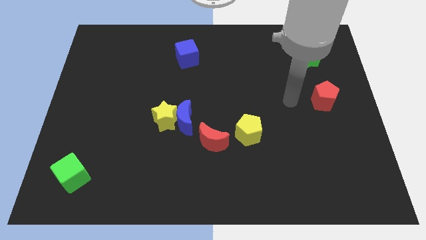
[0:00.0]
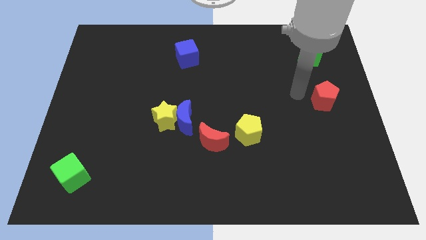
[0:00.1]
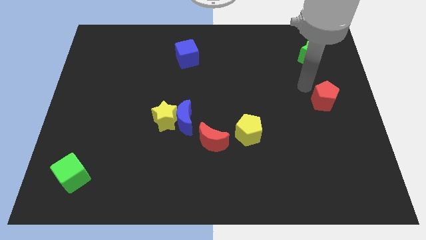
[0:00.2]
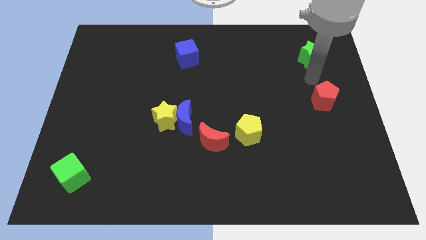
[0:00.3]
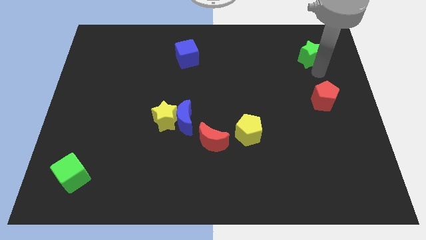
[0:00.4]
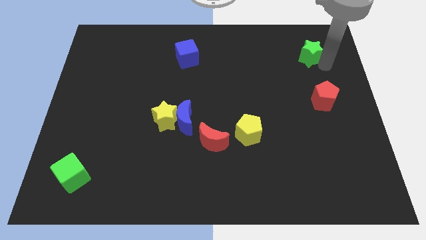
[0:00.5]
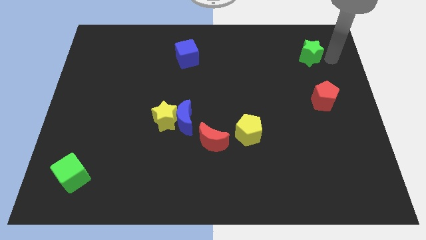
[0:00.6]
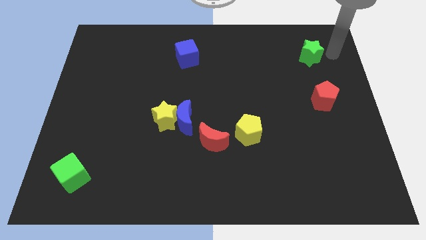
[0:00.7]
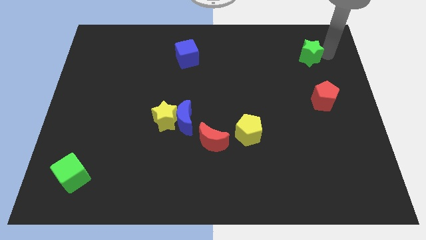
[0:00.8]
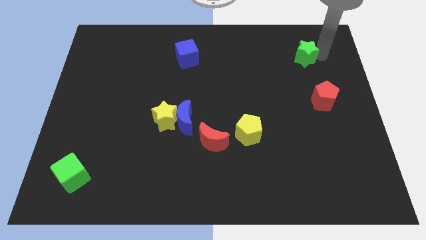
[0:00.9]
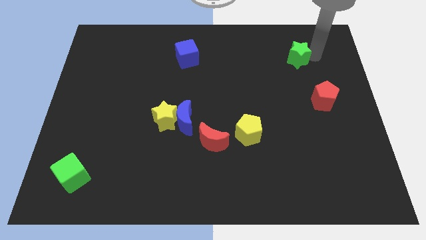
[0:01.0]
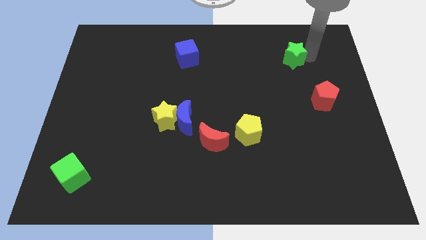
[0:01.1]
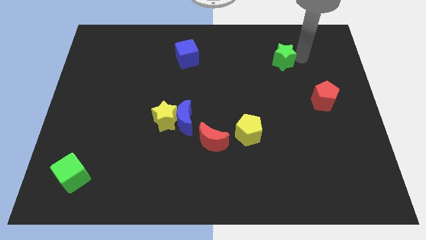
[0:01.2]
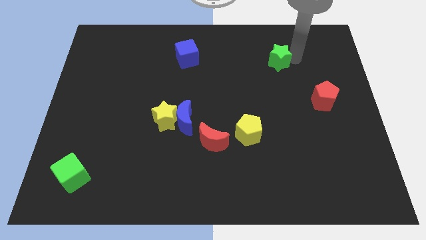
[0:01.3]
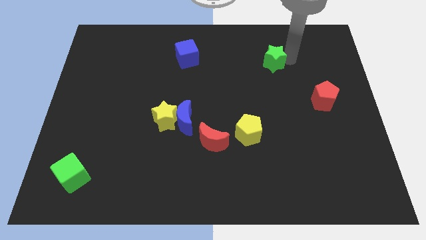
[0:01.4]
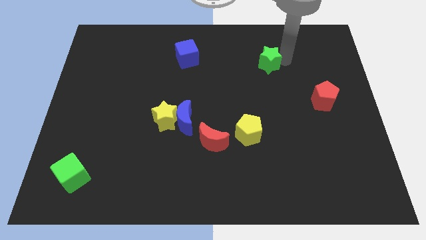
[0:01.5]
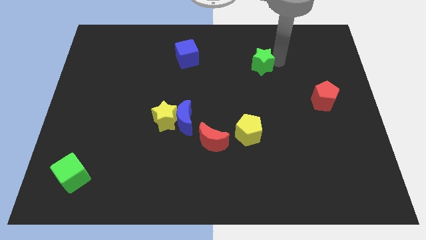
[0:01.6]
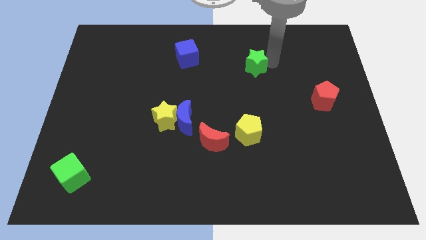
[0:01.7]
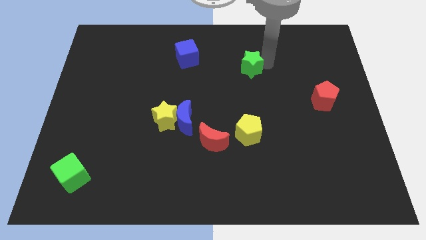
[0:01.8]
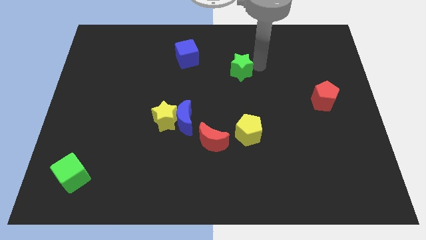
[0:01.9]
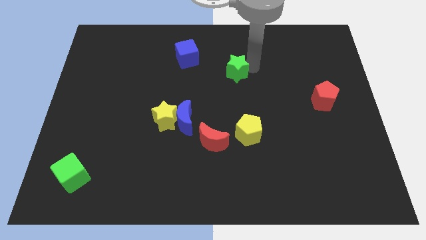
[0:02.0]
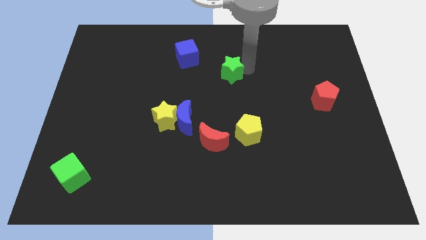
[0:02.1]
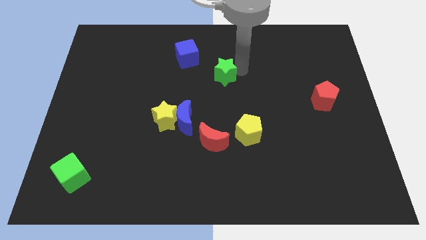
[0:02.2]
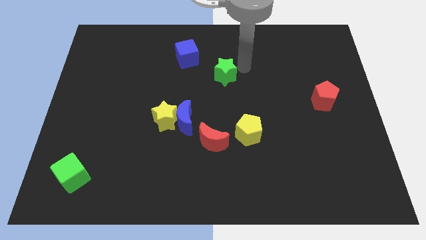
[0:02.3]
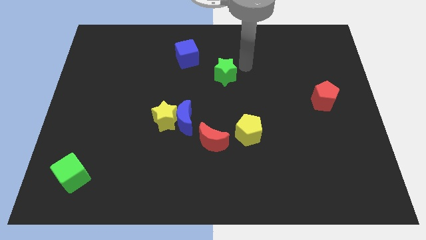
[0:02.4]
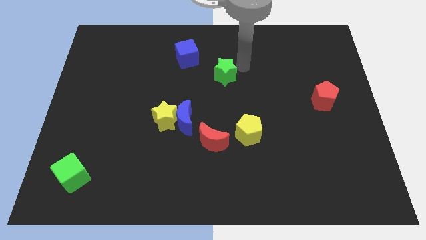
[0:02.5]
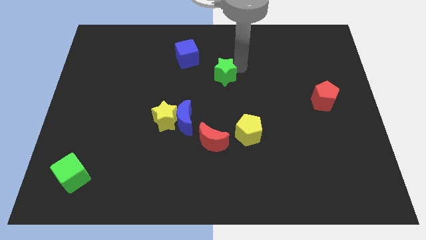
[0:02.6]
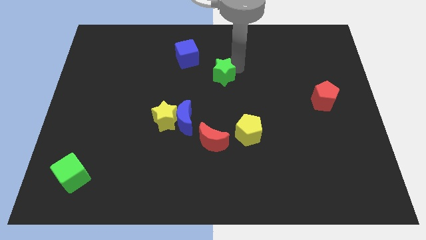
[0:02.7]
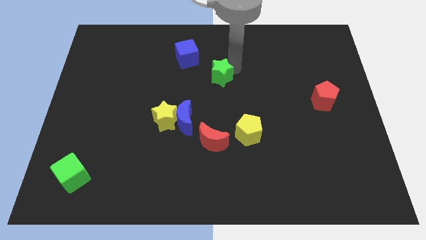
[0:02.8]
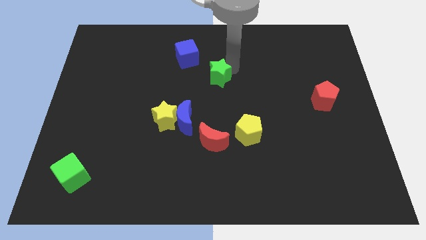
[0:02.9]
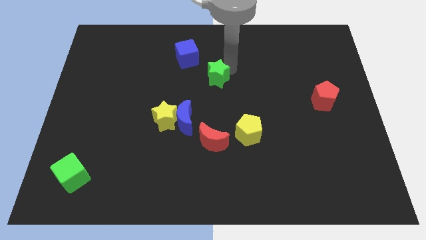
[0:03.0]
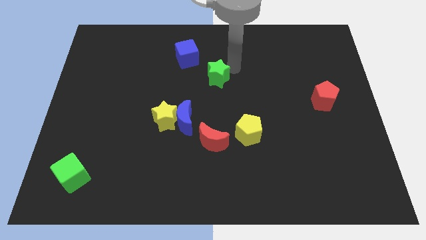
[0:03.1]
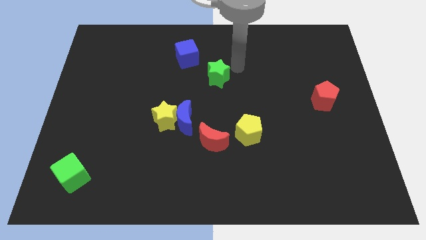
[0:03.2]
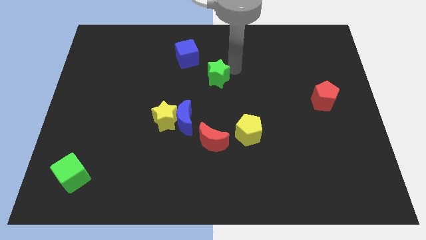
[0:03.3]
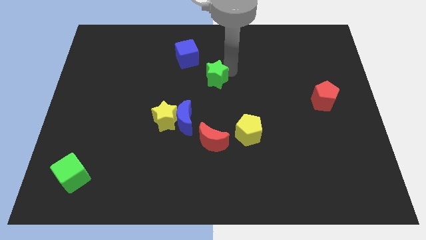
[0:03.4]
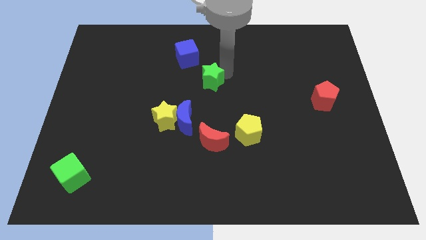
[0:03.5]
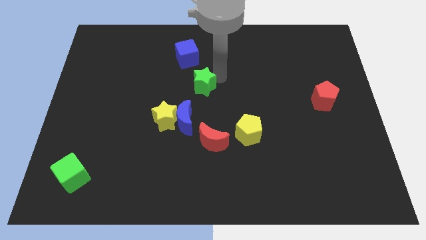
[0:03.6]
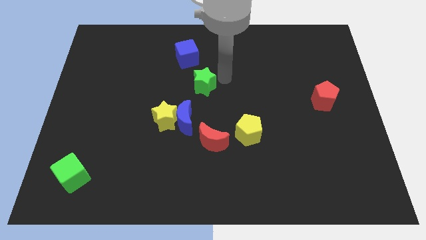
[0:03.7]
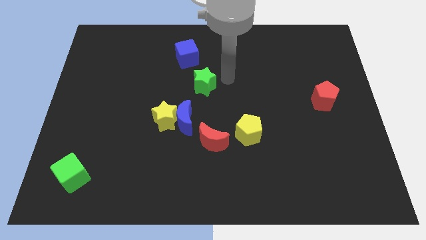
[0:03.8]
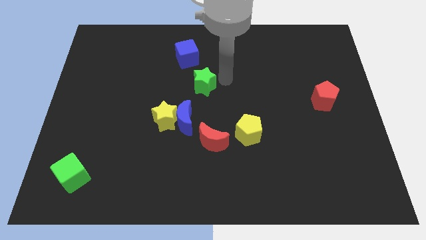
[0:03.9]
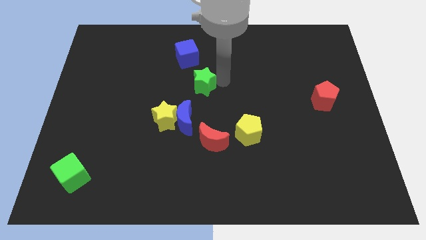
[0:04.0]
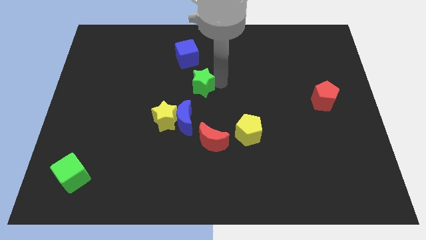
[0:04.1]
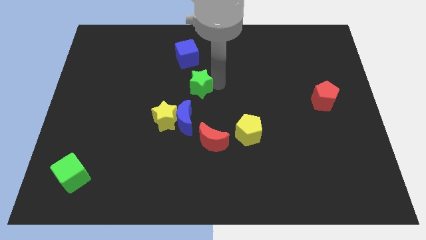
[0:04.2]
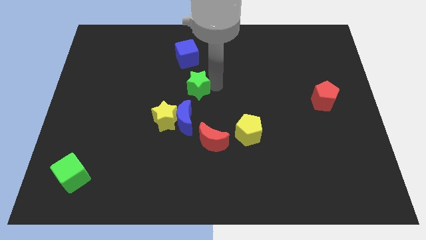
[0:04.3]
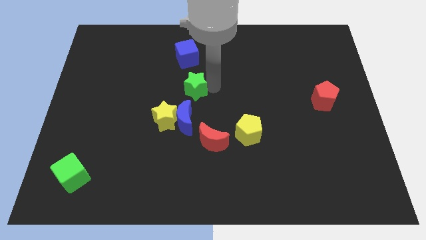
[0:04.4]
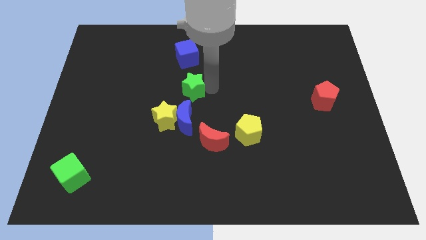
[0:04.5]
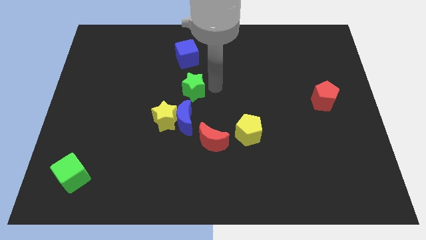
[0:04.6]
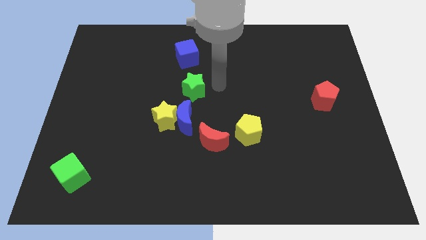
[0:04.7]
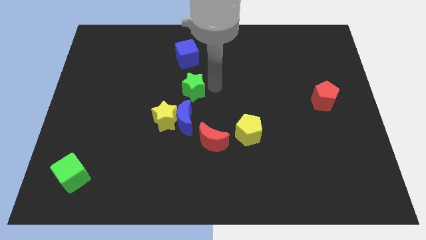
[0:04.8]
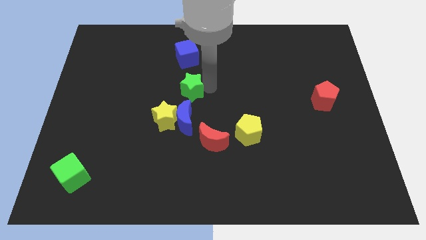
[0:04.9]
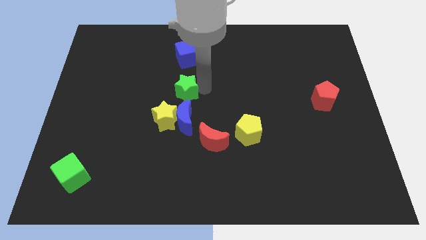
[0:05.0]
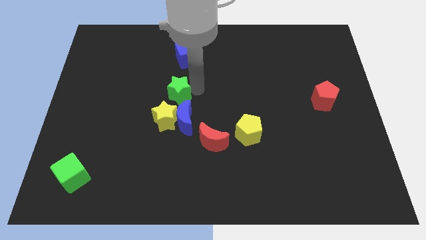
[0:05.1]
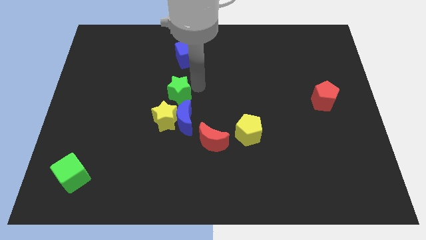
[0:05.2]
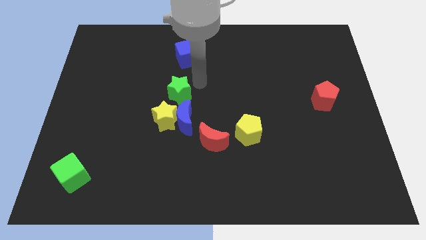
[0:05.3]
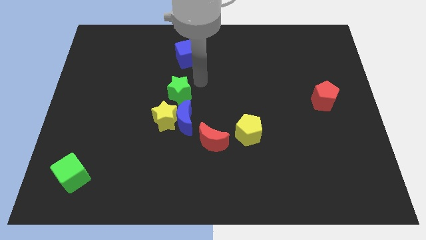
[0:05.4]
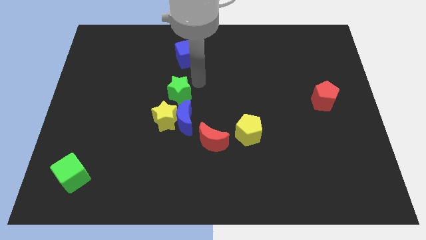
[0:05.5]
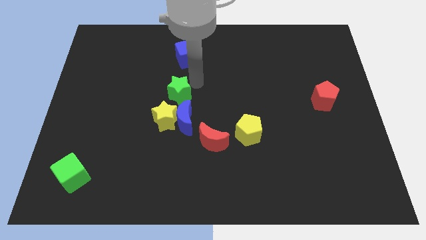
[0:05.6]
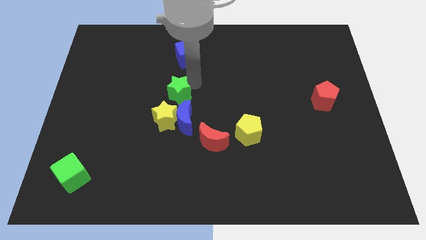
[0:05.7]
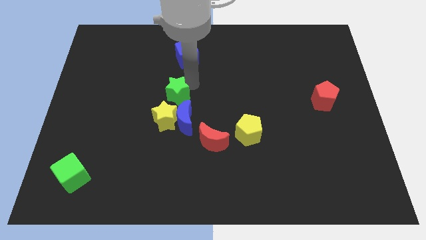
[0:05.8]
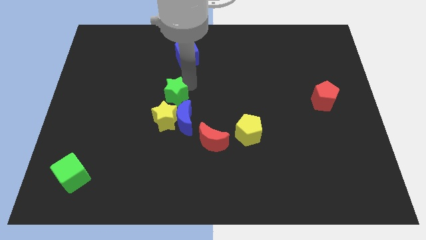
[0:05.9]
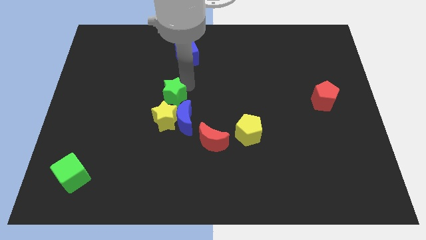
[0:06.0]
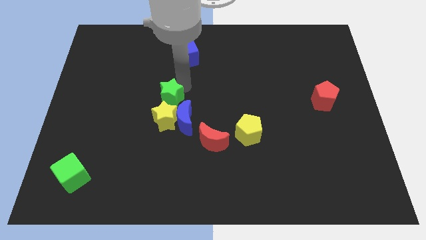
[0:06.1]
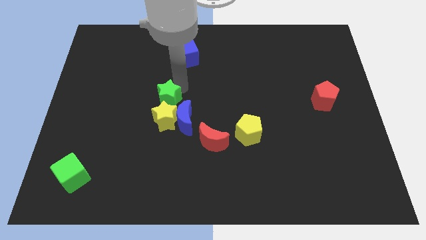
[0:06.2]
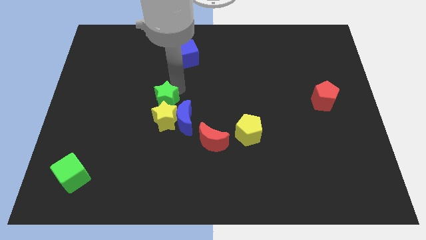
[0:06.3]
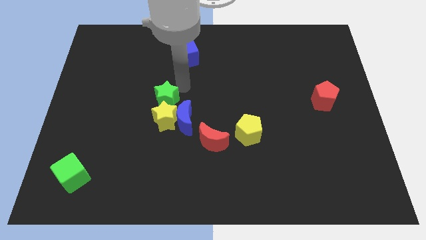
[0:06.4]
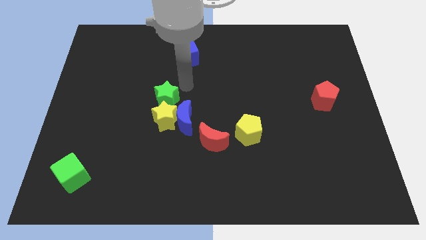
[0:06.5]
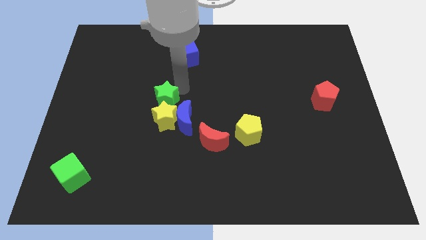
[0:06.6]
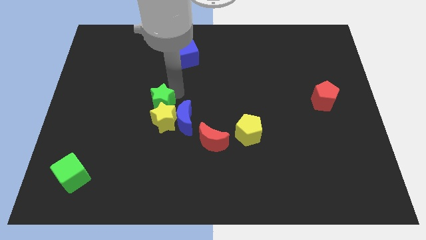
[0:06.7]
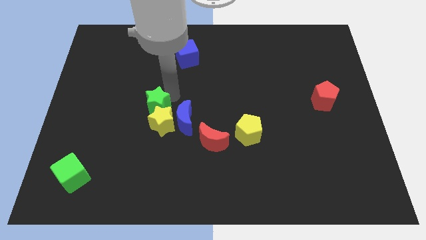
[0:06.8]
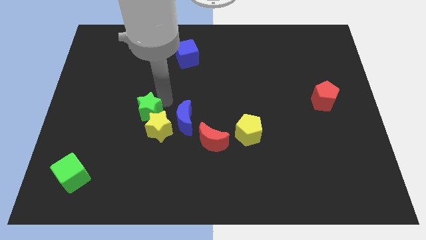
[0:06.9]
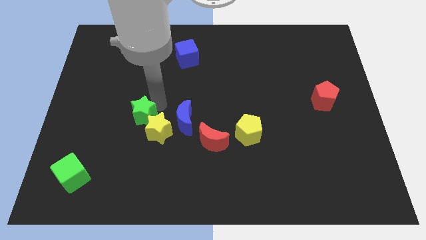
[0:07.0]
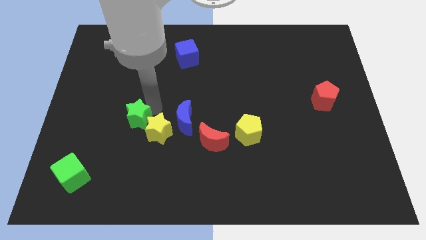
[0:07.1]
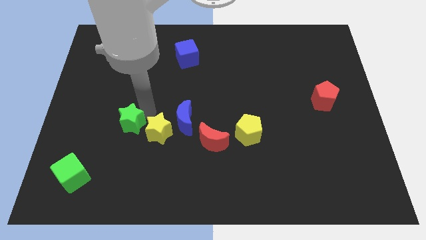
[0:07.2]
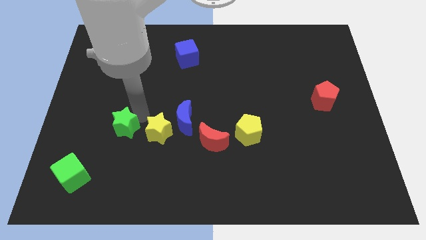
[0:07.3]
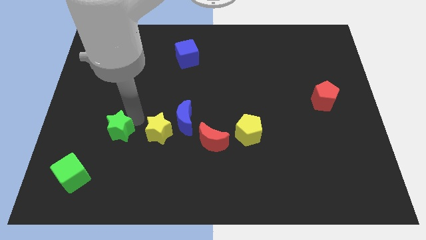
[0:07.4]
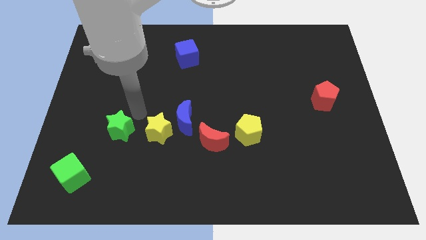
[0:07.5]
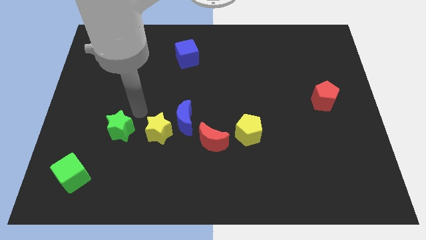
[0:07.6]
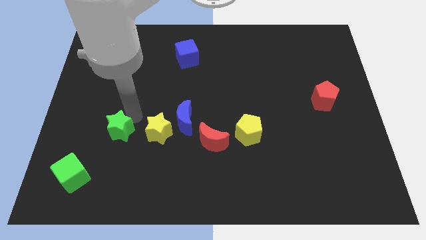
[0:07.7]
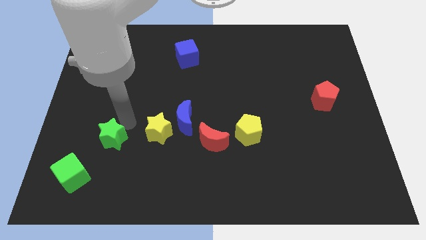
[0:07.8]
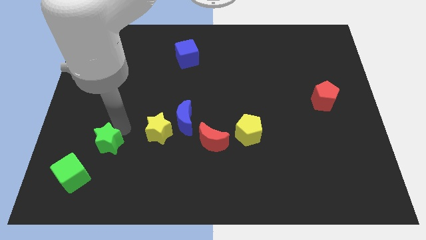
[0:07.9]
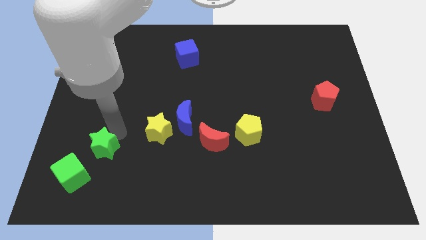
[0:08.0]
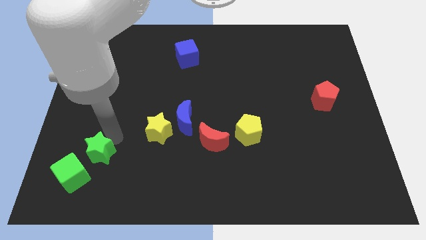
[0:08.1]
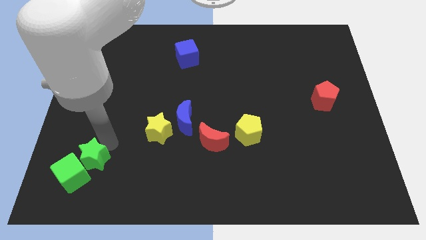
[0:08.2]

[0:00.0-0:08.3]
slide the green star close to the green cube
